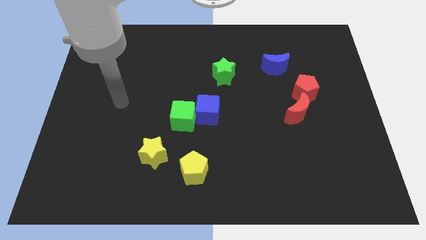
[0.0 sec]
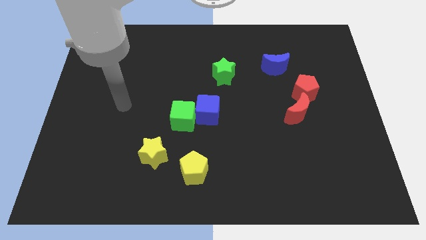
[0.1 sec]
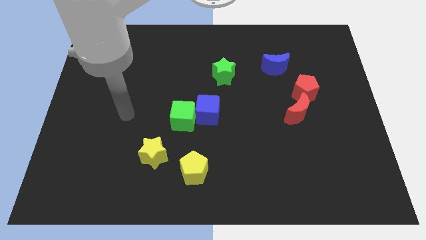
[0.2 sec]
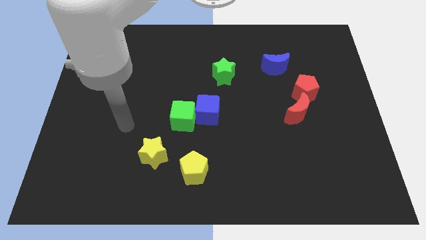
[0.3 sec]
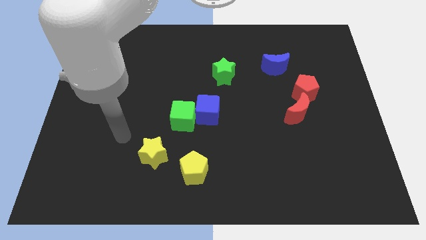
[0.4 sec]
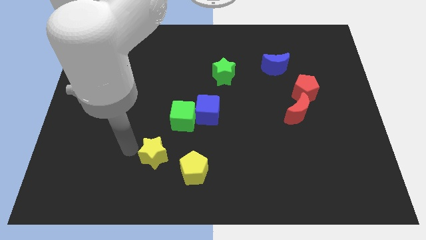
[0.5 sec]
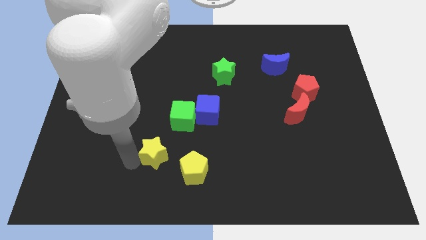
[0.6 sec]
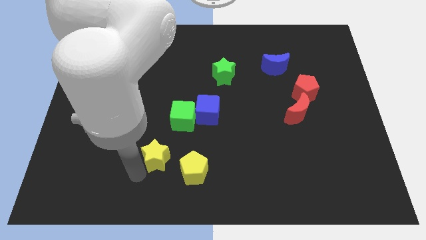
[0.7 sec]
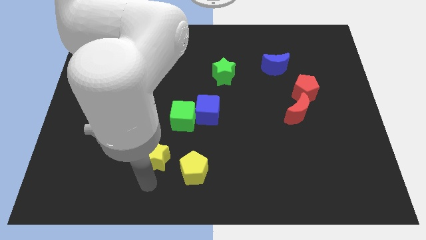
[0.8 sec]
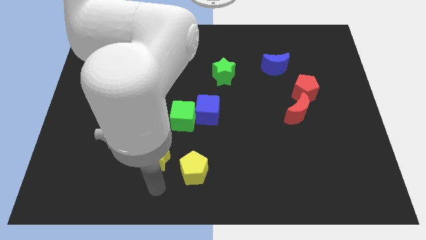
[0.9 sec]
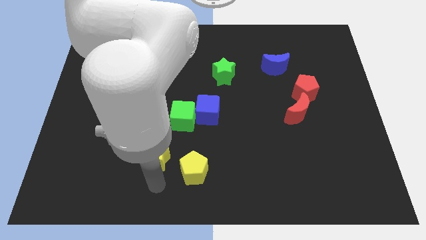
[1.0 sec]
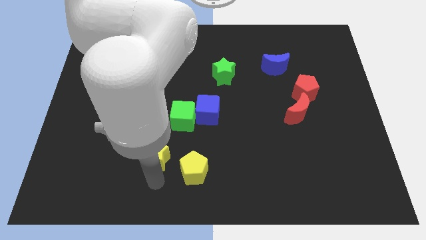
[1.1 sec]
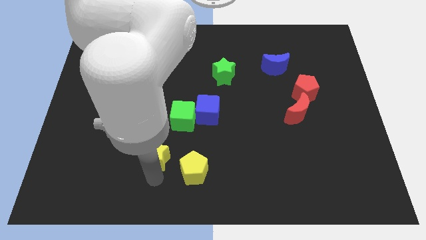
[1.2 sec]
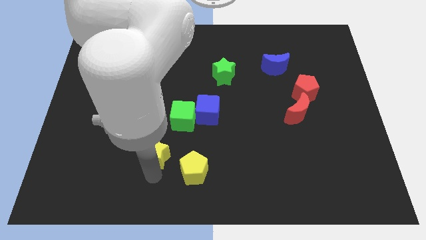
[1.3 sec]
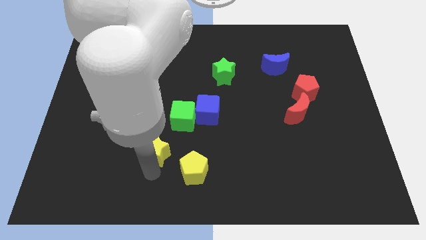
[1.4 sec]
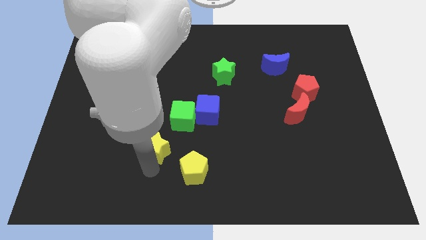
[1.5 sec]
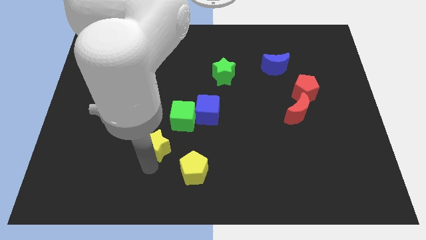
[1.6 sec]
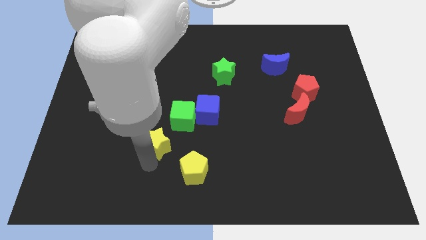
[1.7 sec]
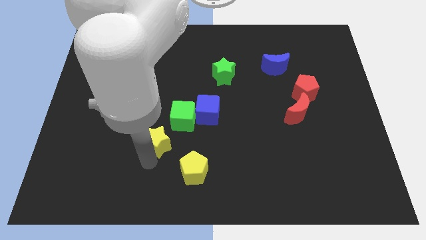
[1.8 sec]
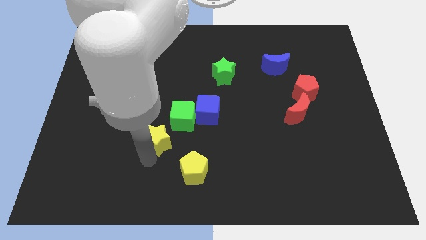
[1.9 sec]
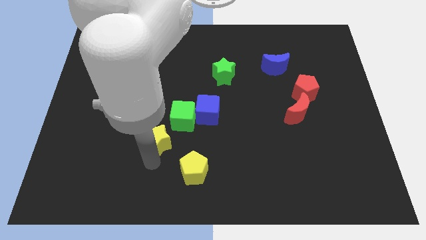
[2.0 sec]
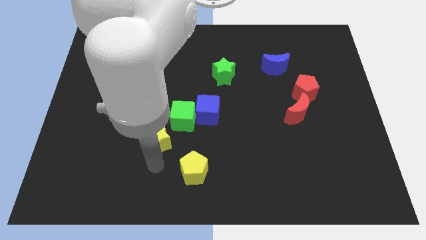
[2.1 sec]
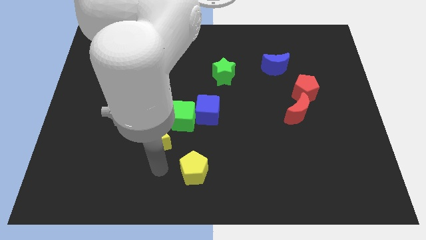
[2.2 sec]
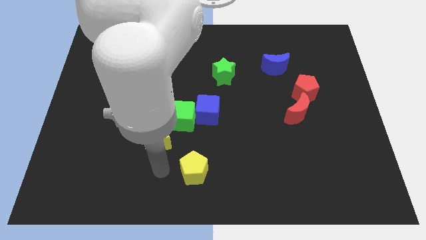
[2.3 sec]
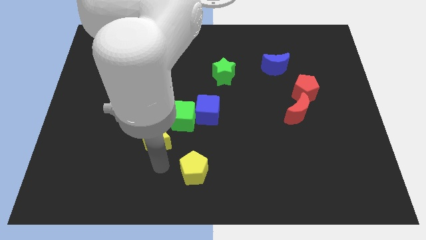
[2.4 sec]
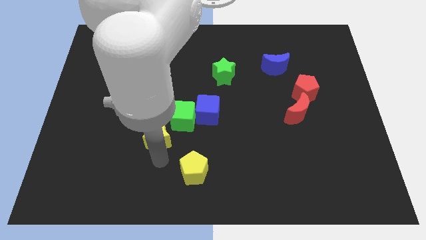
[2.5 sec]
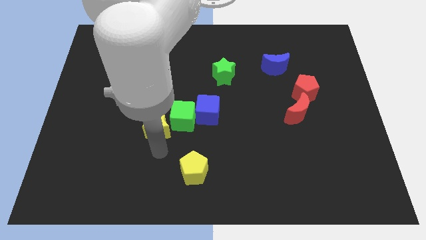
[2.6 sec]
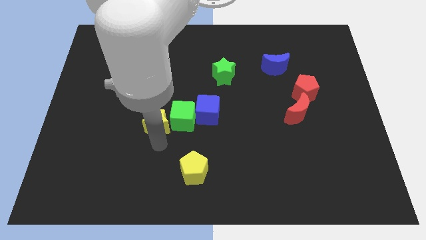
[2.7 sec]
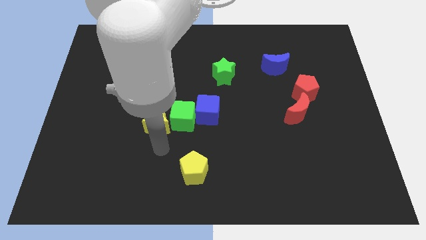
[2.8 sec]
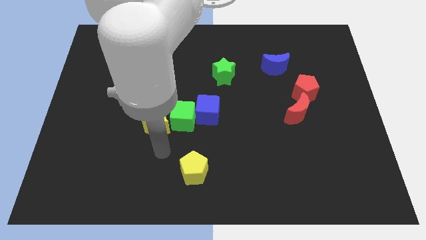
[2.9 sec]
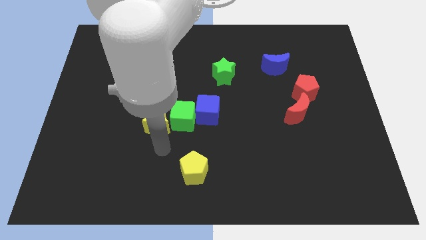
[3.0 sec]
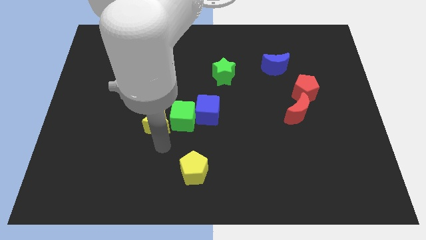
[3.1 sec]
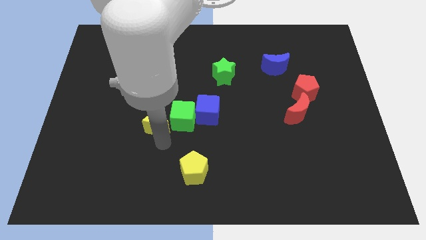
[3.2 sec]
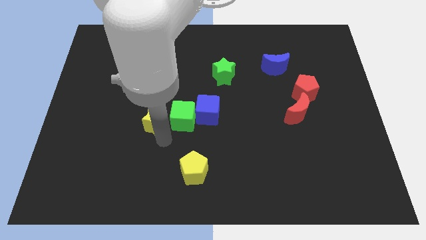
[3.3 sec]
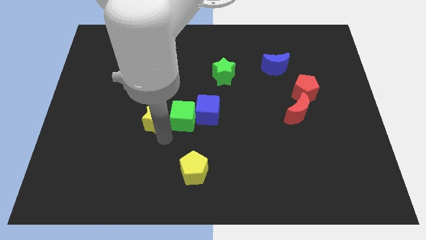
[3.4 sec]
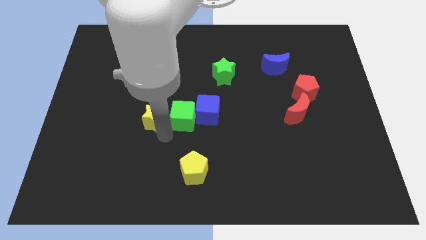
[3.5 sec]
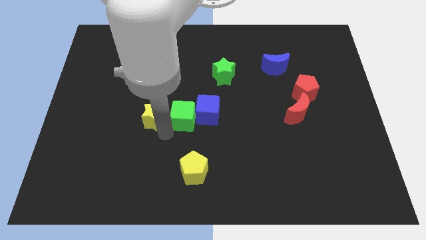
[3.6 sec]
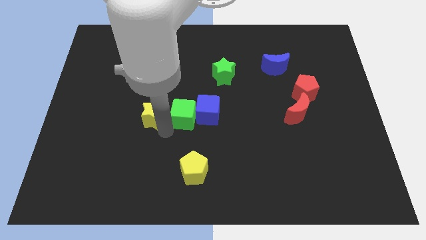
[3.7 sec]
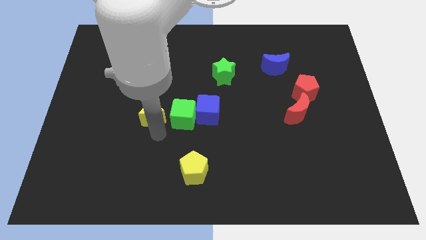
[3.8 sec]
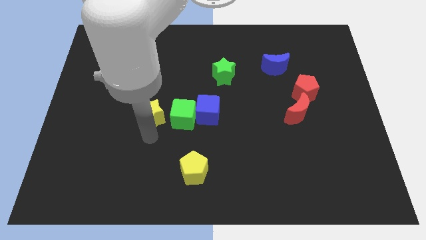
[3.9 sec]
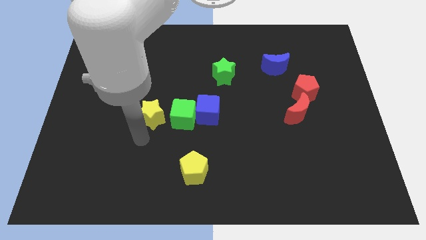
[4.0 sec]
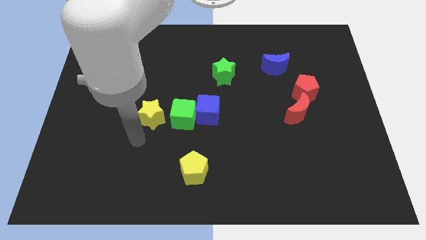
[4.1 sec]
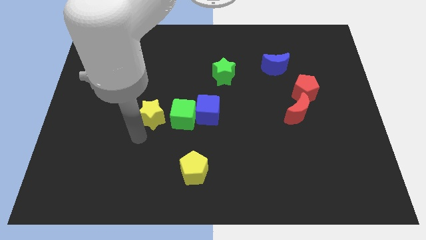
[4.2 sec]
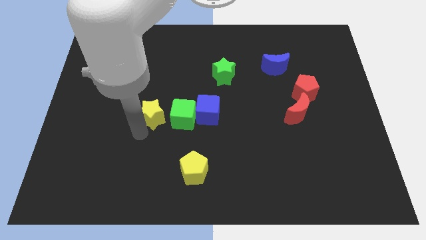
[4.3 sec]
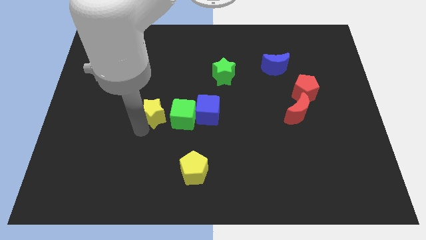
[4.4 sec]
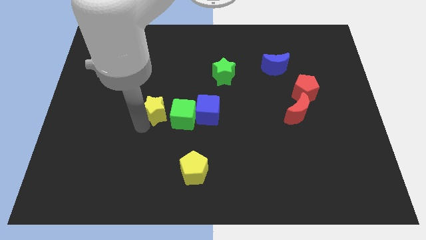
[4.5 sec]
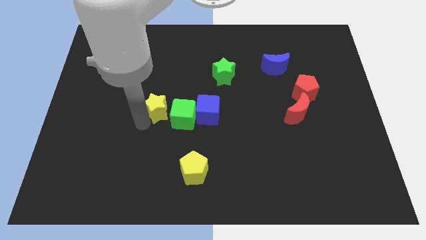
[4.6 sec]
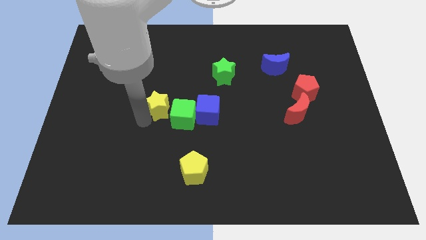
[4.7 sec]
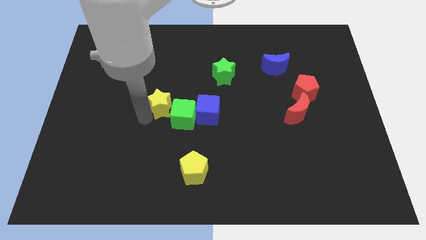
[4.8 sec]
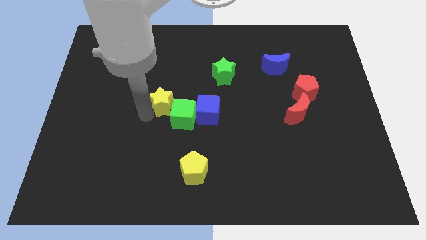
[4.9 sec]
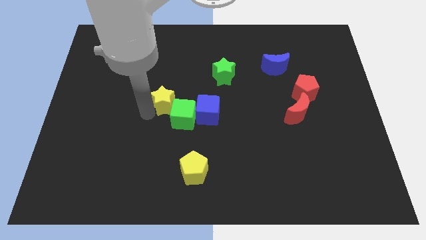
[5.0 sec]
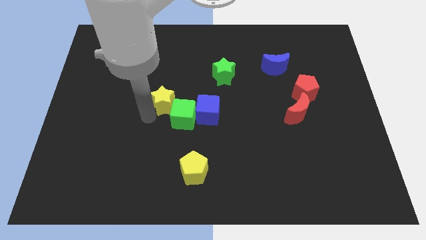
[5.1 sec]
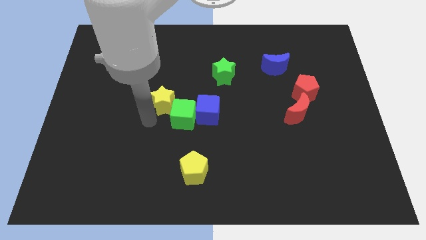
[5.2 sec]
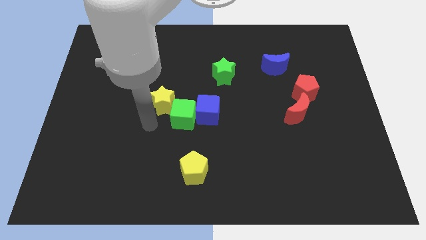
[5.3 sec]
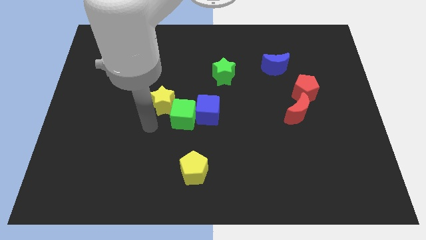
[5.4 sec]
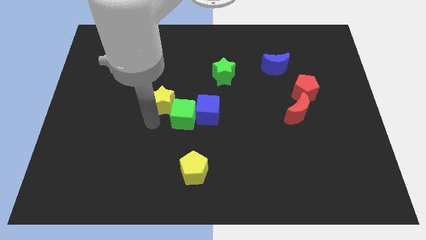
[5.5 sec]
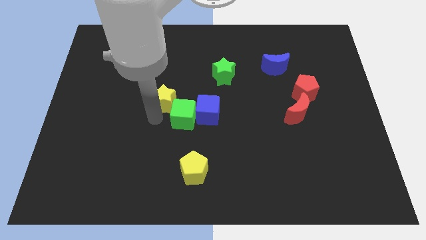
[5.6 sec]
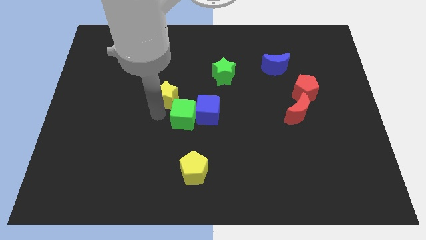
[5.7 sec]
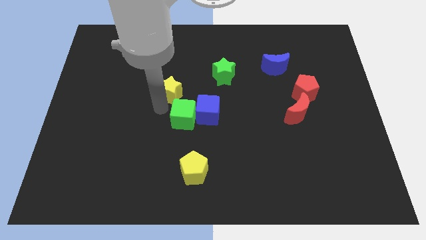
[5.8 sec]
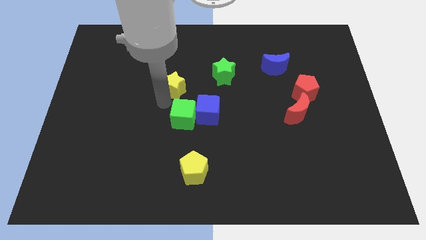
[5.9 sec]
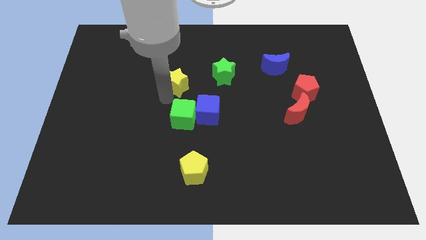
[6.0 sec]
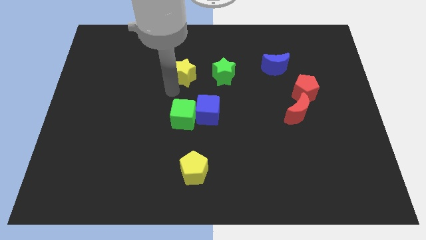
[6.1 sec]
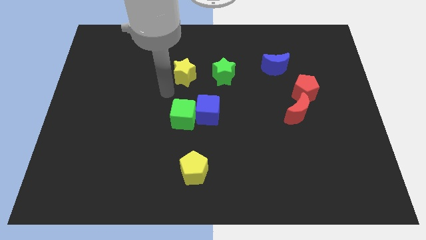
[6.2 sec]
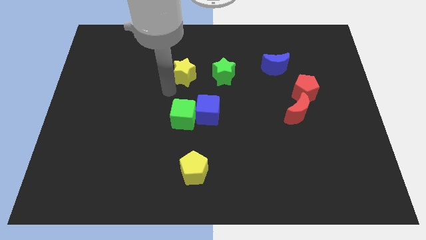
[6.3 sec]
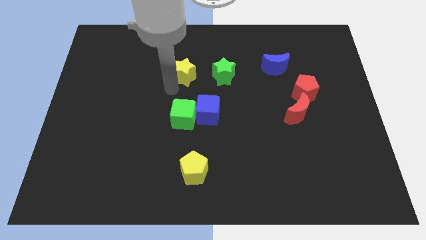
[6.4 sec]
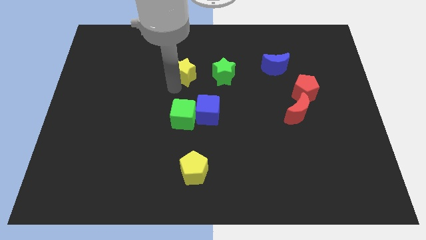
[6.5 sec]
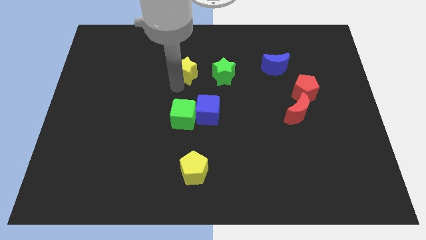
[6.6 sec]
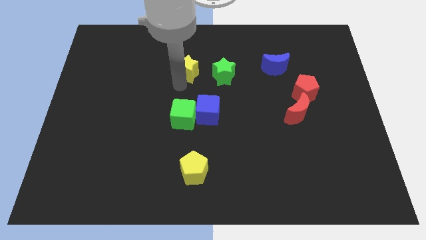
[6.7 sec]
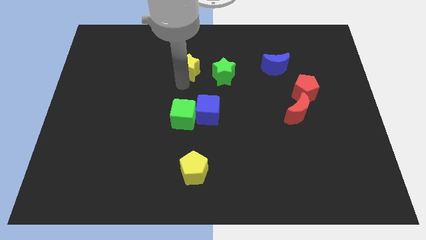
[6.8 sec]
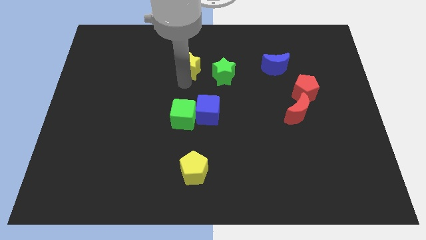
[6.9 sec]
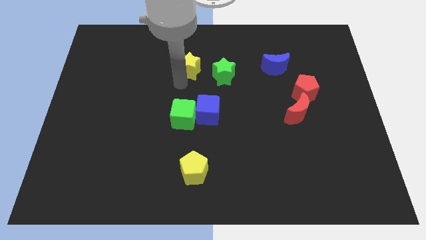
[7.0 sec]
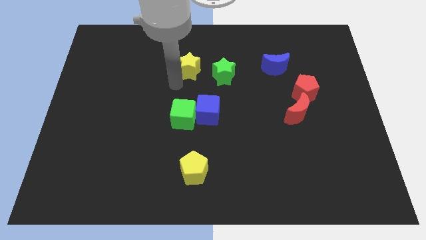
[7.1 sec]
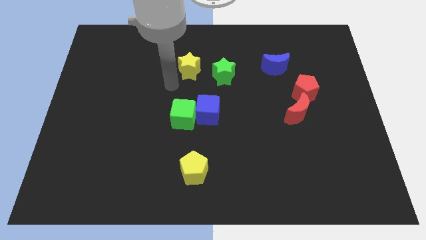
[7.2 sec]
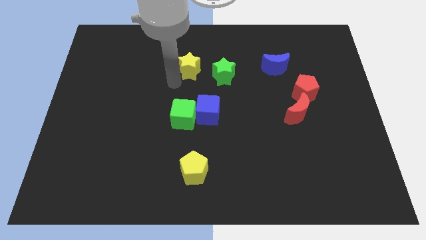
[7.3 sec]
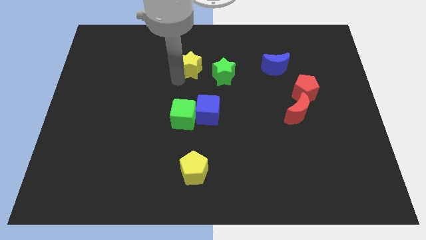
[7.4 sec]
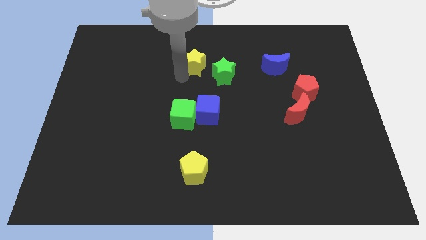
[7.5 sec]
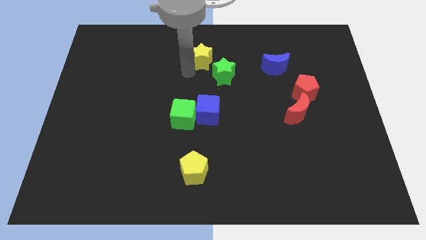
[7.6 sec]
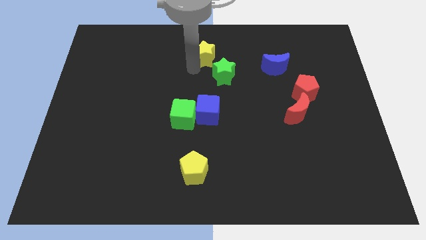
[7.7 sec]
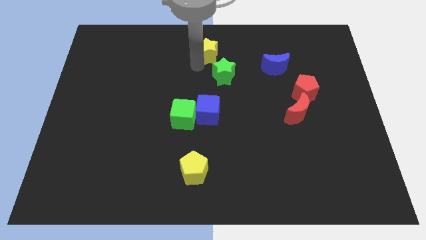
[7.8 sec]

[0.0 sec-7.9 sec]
slide the yellow star to the towards your base
